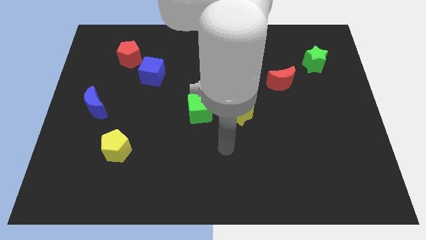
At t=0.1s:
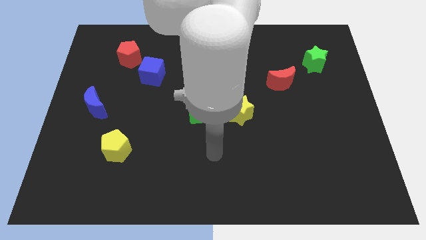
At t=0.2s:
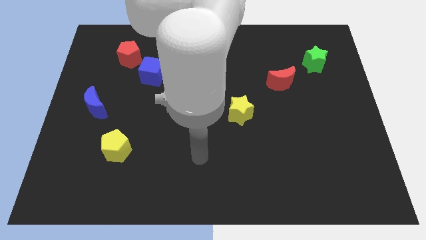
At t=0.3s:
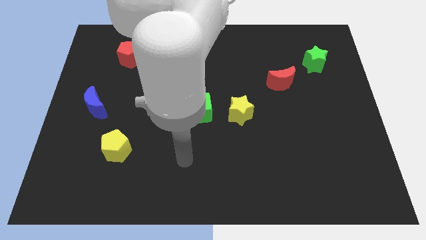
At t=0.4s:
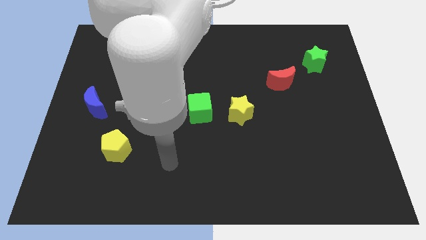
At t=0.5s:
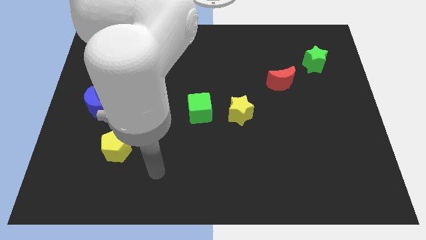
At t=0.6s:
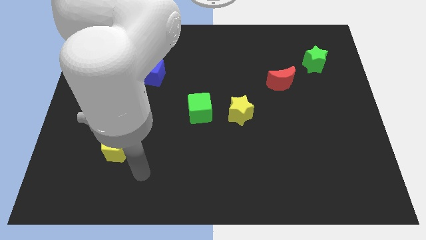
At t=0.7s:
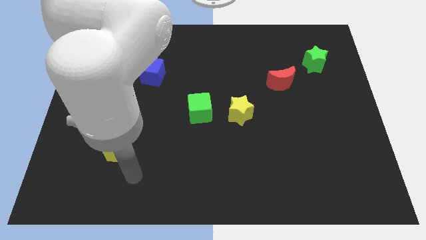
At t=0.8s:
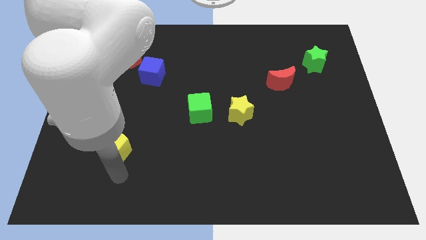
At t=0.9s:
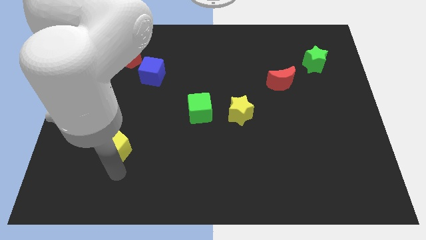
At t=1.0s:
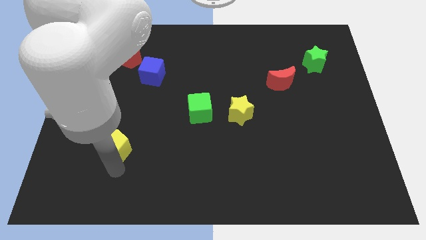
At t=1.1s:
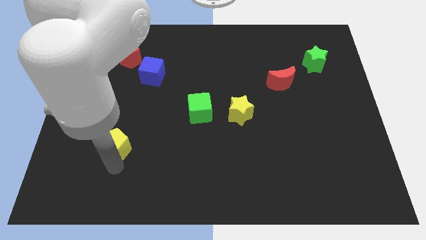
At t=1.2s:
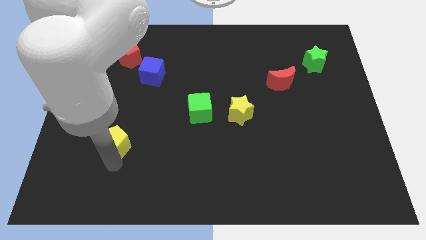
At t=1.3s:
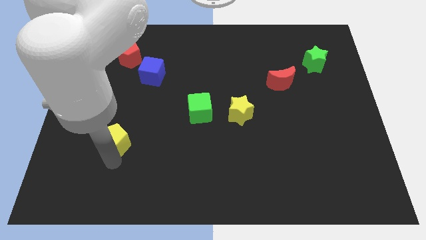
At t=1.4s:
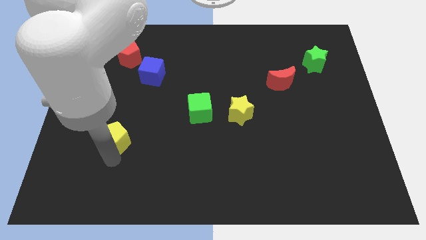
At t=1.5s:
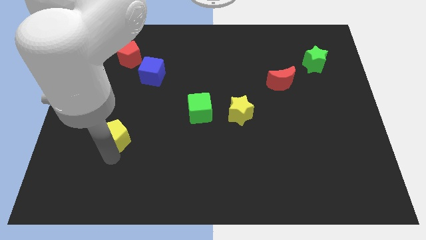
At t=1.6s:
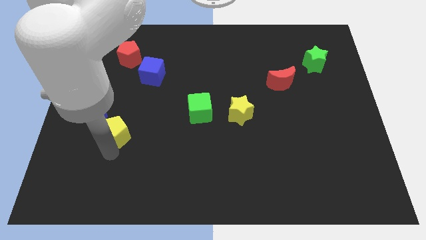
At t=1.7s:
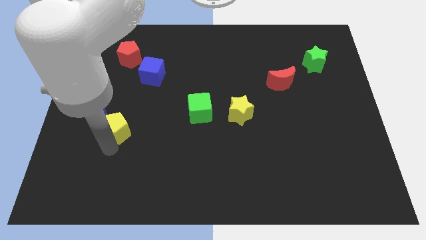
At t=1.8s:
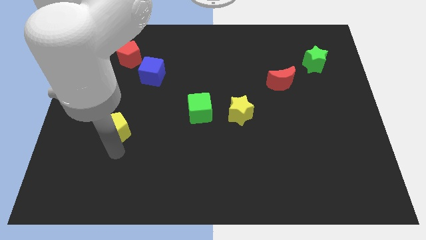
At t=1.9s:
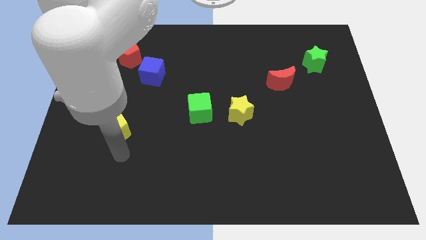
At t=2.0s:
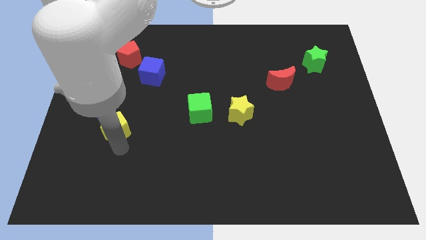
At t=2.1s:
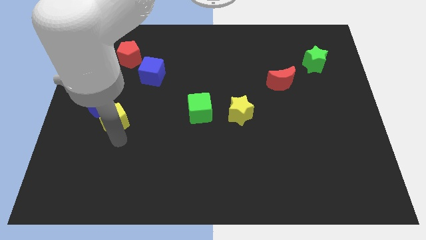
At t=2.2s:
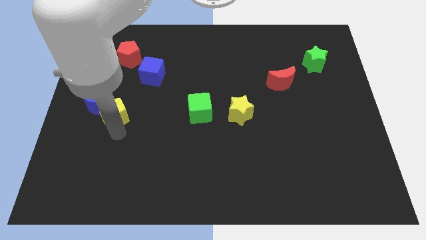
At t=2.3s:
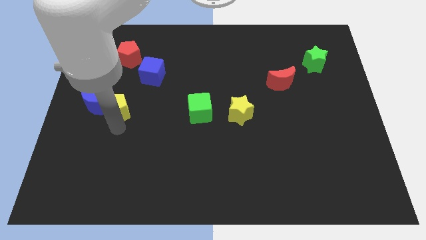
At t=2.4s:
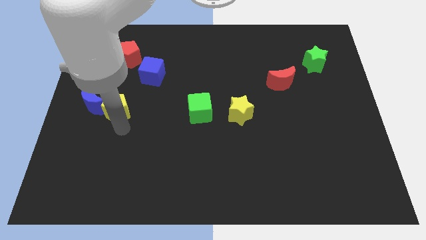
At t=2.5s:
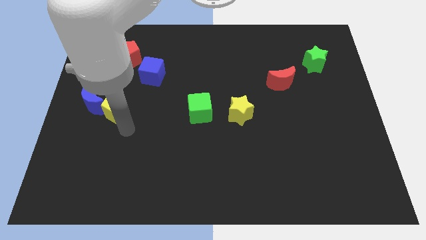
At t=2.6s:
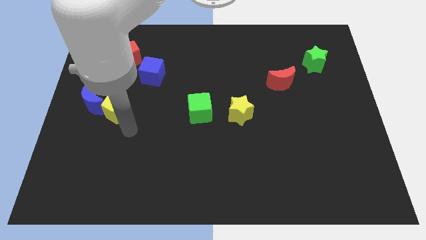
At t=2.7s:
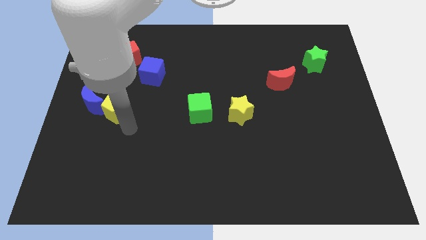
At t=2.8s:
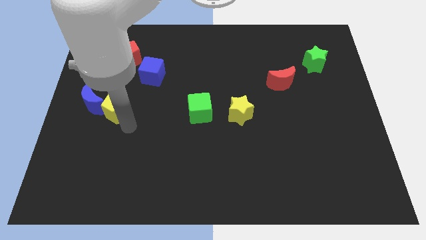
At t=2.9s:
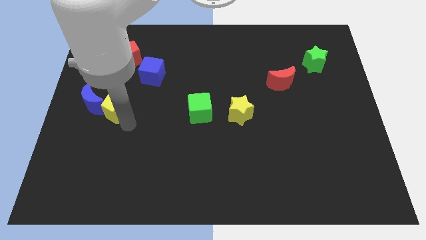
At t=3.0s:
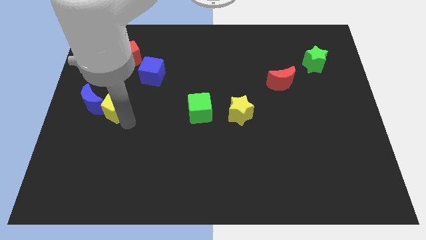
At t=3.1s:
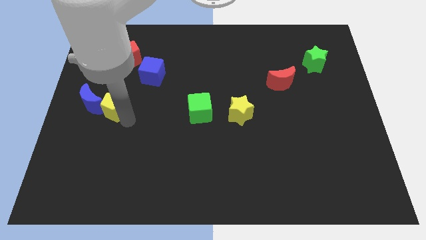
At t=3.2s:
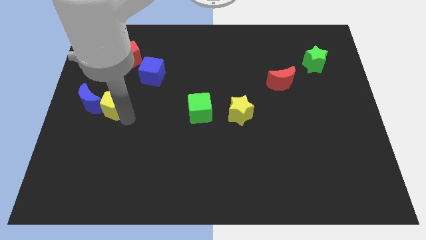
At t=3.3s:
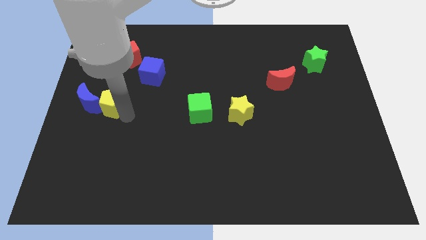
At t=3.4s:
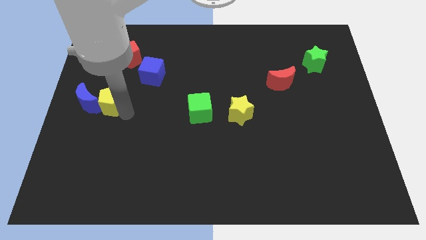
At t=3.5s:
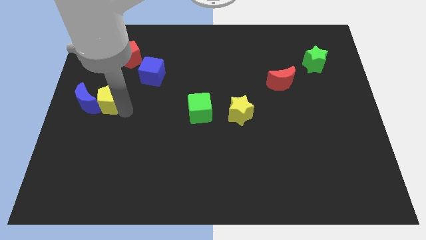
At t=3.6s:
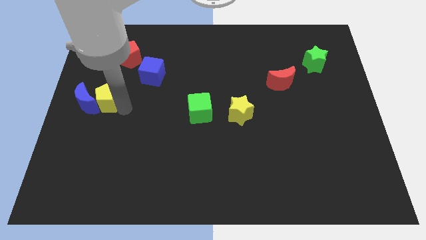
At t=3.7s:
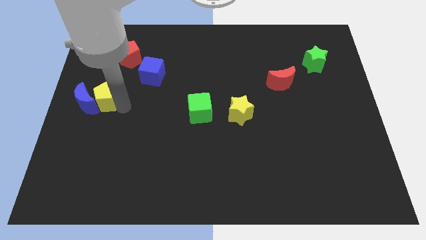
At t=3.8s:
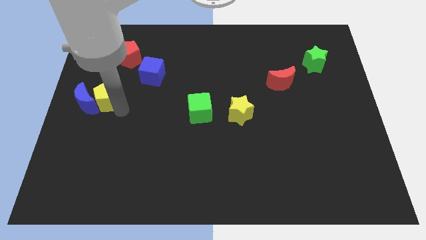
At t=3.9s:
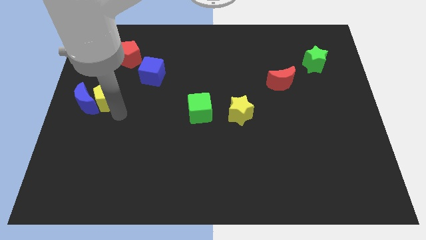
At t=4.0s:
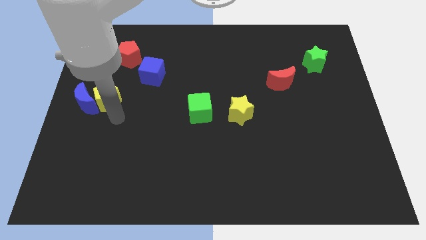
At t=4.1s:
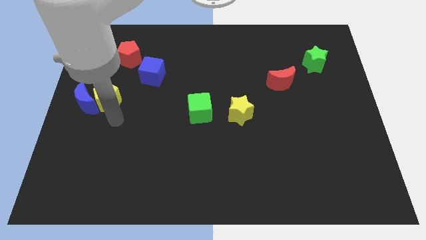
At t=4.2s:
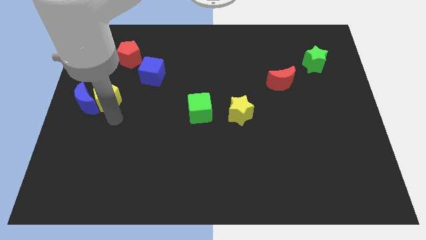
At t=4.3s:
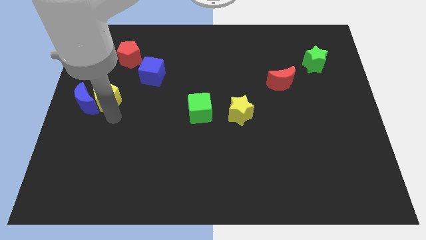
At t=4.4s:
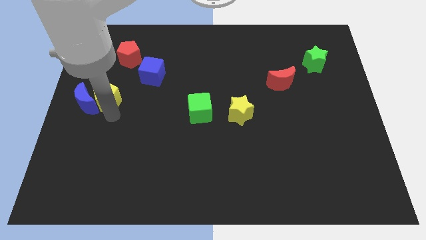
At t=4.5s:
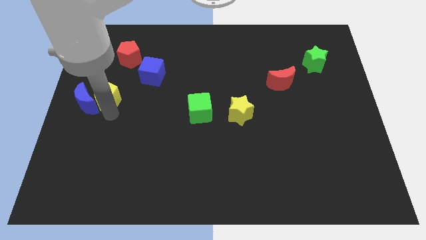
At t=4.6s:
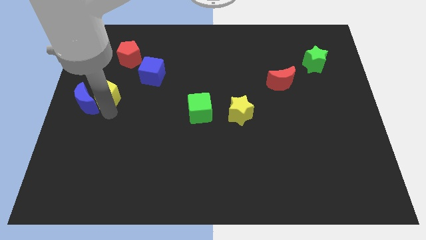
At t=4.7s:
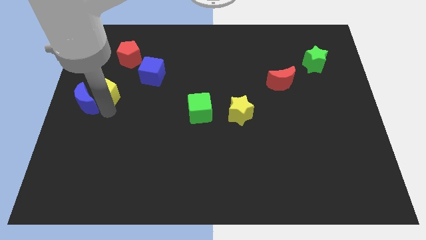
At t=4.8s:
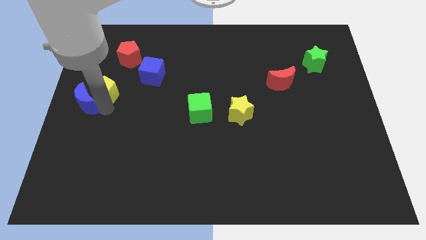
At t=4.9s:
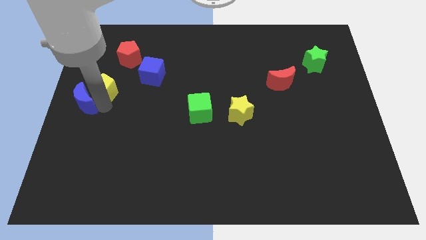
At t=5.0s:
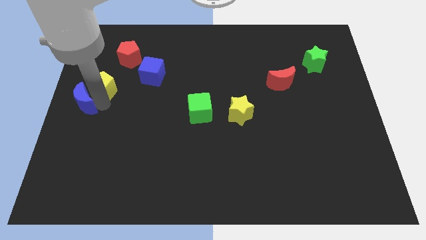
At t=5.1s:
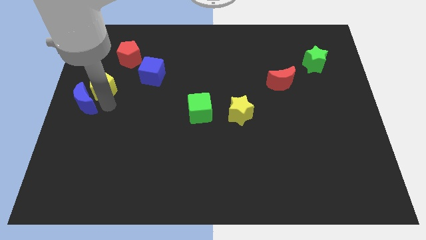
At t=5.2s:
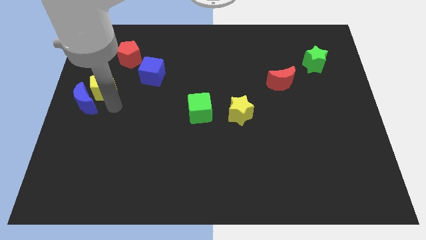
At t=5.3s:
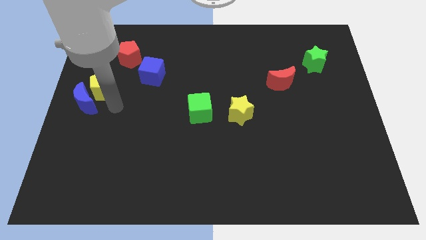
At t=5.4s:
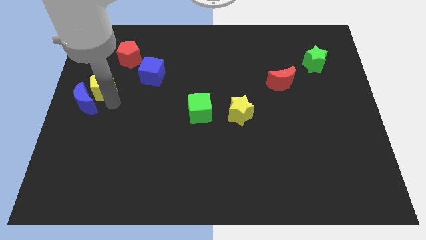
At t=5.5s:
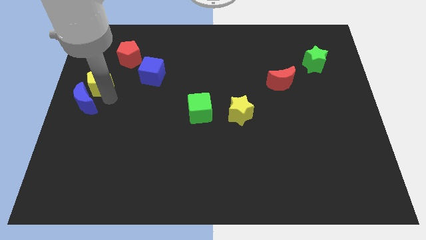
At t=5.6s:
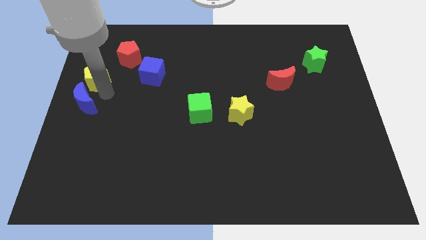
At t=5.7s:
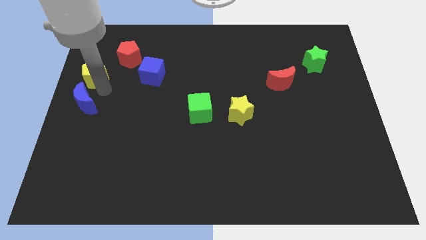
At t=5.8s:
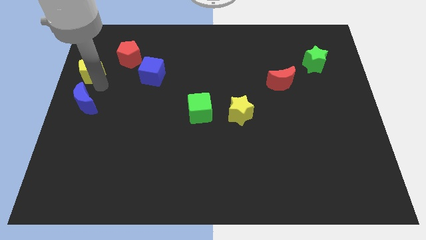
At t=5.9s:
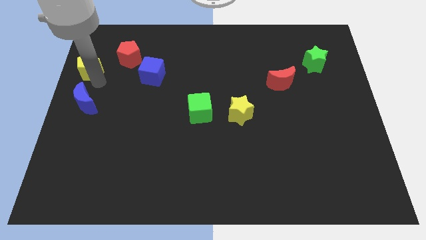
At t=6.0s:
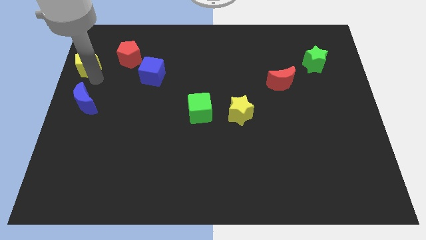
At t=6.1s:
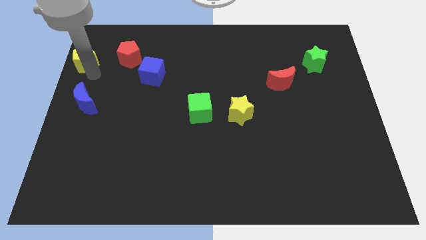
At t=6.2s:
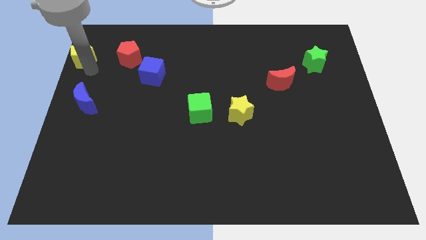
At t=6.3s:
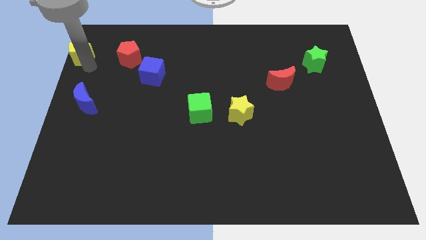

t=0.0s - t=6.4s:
put the yellow pentagon to the top left of the board

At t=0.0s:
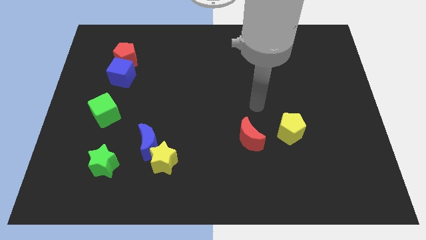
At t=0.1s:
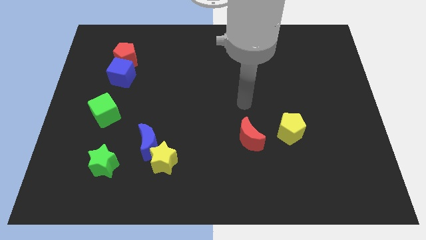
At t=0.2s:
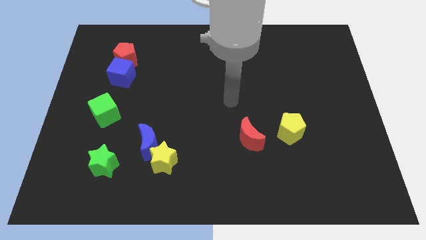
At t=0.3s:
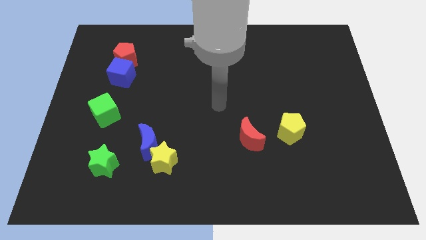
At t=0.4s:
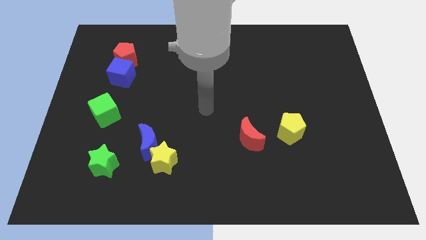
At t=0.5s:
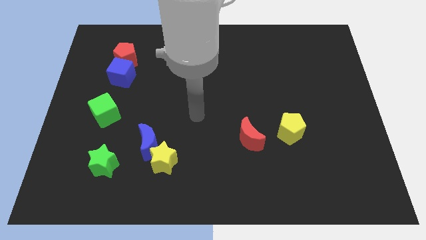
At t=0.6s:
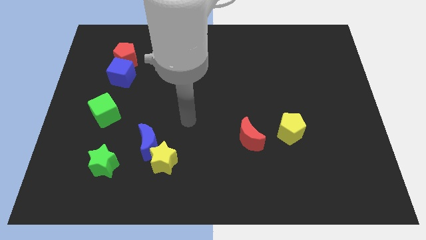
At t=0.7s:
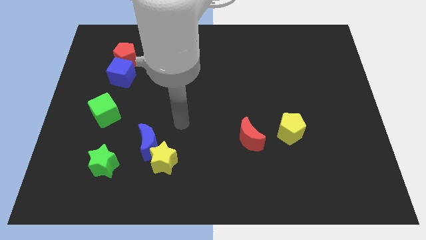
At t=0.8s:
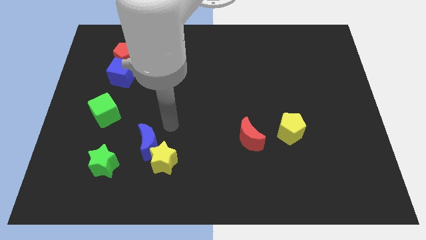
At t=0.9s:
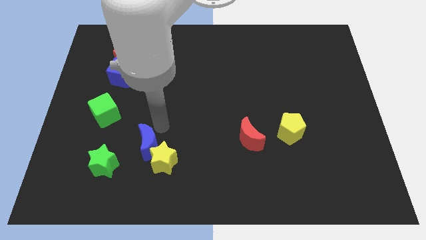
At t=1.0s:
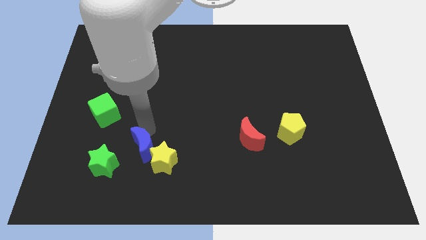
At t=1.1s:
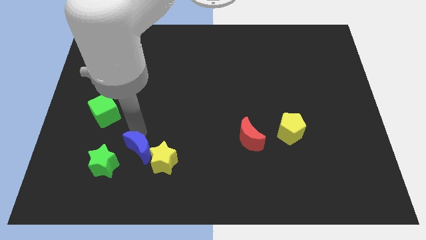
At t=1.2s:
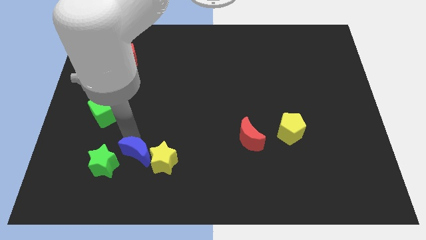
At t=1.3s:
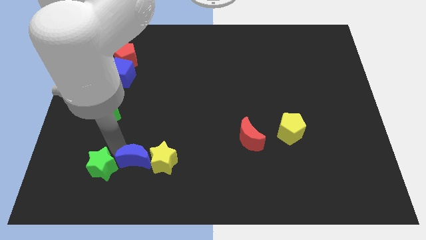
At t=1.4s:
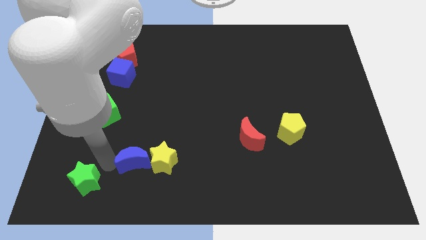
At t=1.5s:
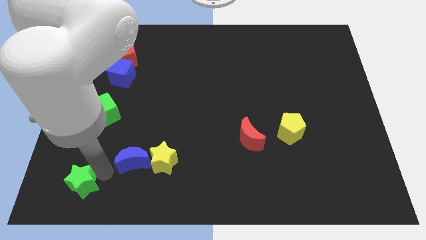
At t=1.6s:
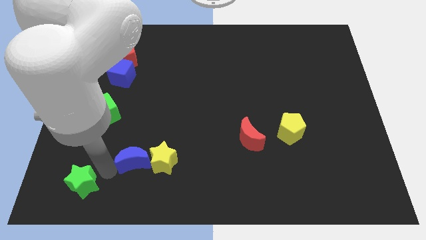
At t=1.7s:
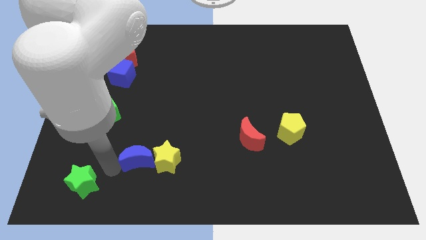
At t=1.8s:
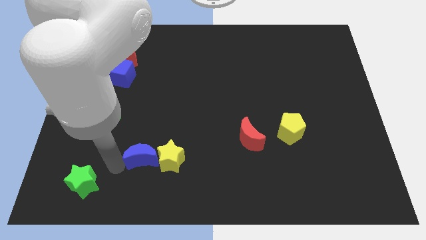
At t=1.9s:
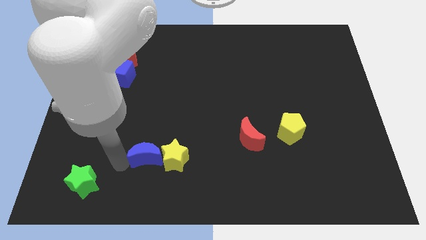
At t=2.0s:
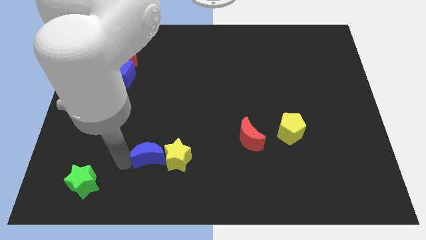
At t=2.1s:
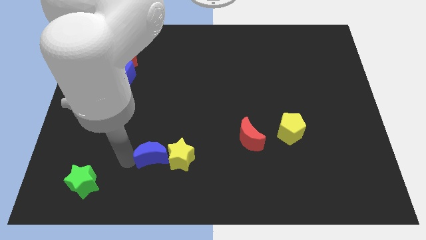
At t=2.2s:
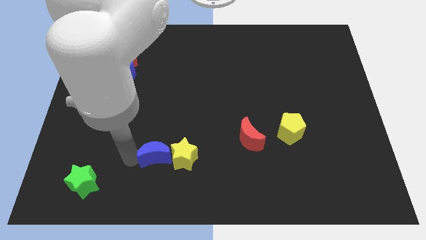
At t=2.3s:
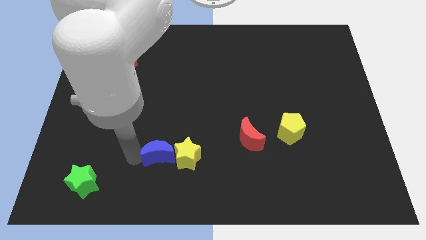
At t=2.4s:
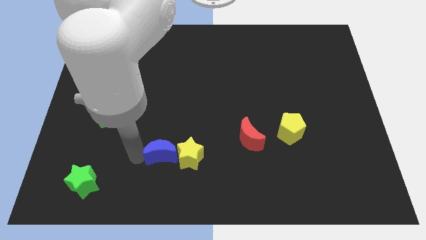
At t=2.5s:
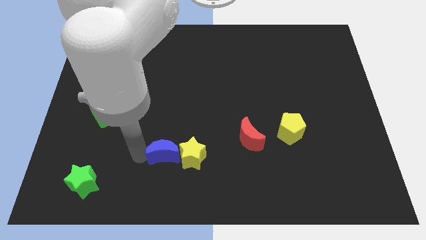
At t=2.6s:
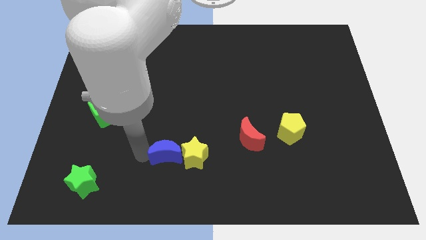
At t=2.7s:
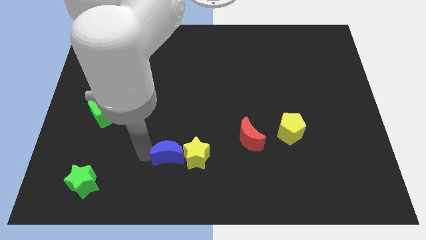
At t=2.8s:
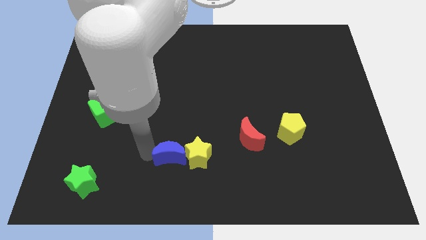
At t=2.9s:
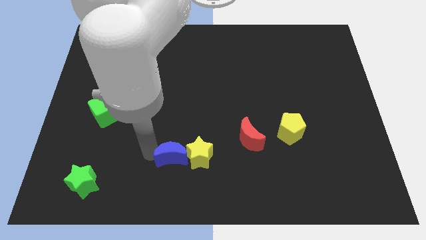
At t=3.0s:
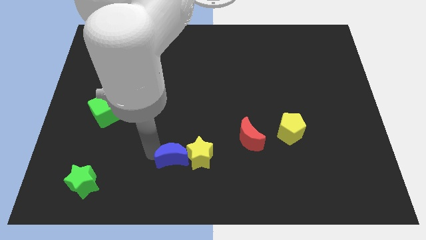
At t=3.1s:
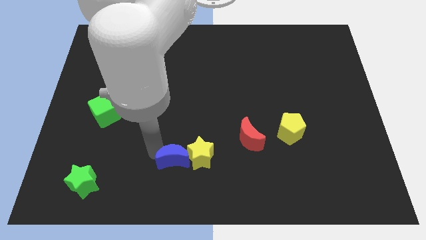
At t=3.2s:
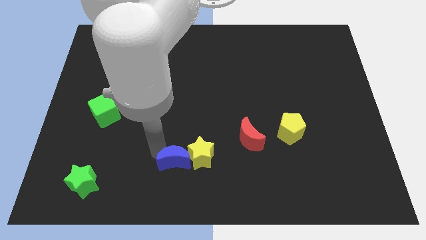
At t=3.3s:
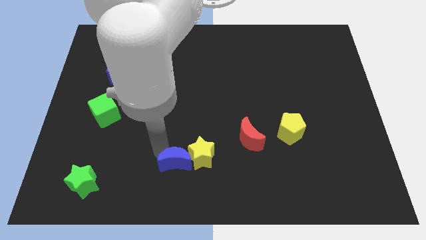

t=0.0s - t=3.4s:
put the blue moon to the bottom side
